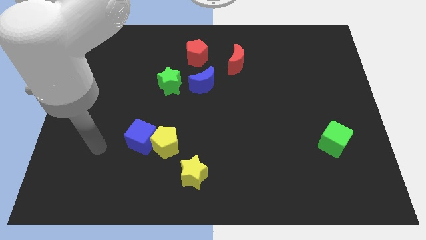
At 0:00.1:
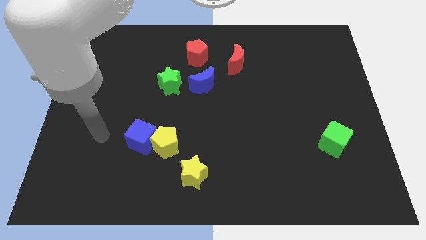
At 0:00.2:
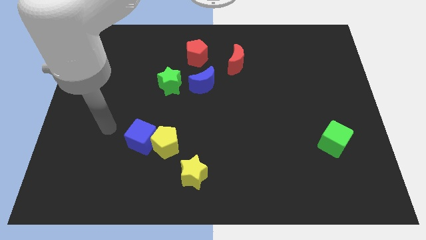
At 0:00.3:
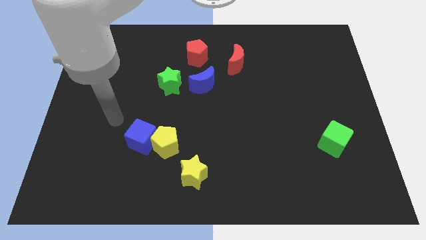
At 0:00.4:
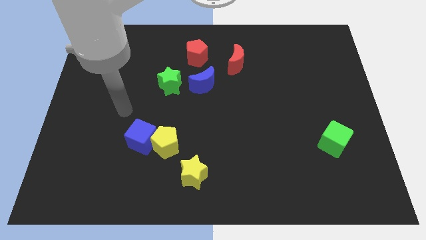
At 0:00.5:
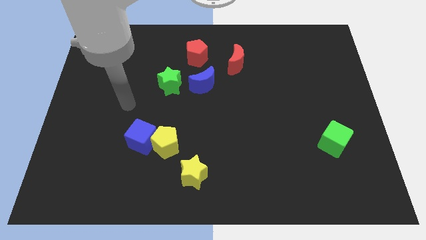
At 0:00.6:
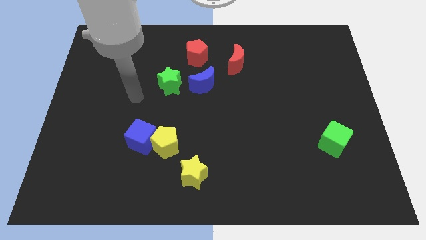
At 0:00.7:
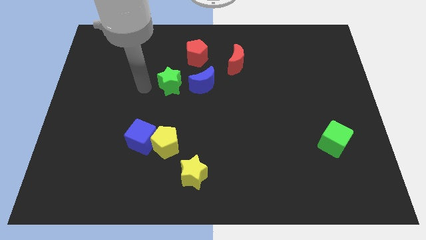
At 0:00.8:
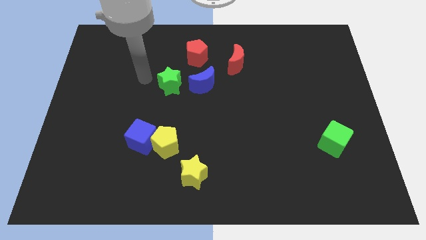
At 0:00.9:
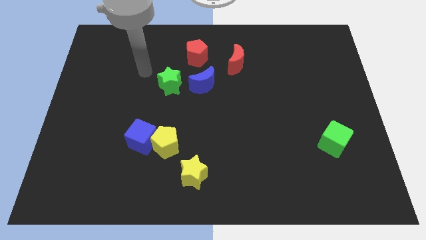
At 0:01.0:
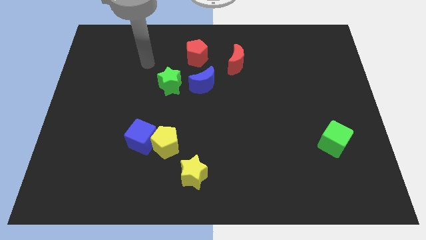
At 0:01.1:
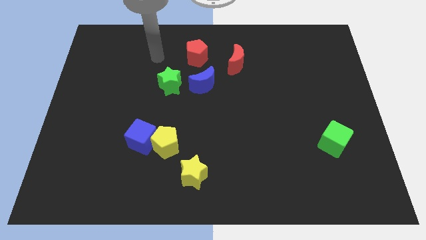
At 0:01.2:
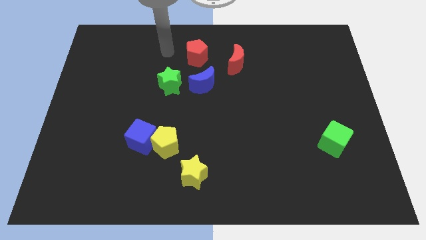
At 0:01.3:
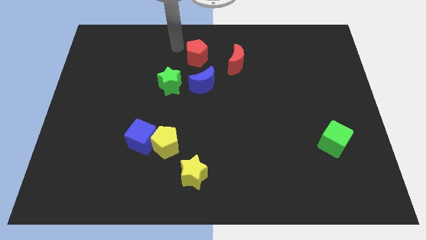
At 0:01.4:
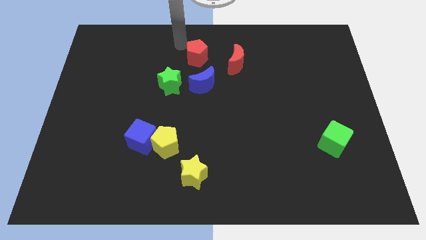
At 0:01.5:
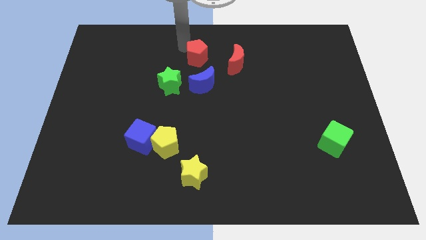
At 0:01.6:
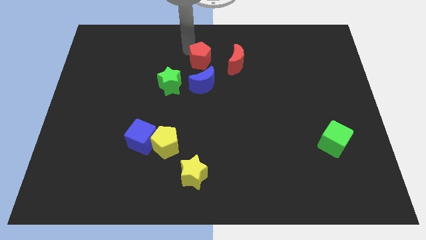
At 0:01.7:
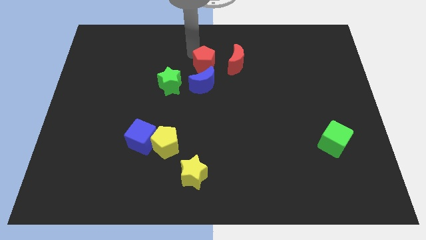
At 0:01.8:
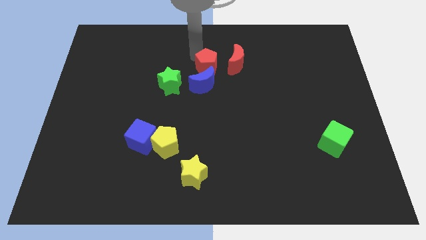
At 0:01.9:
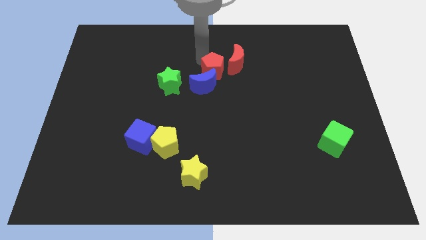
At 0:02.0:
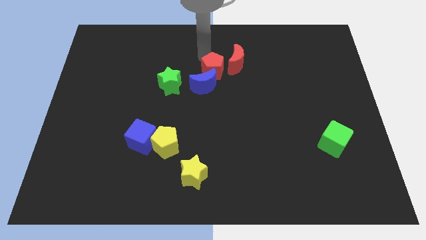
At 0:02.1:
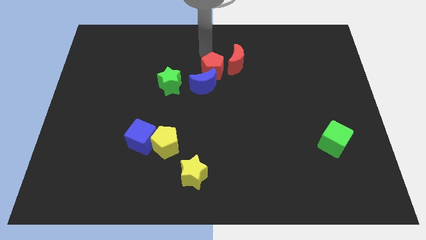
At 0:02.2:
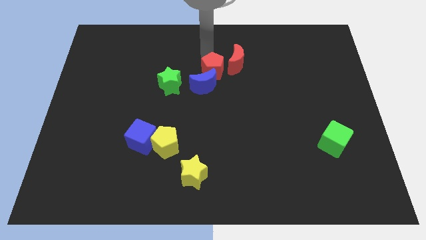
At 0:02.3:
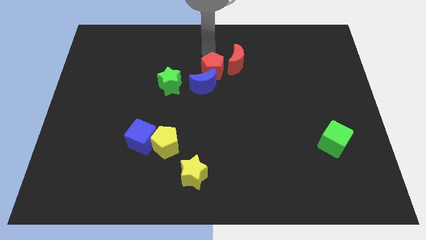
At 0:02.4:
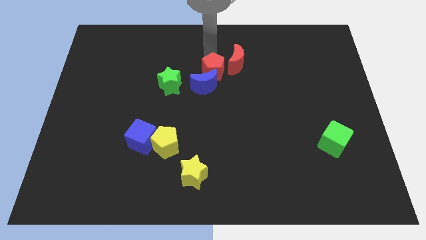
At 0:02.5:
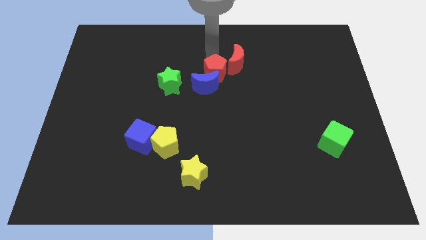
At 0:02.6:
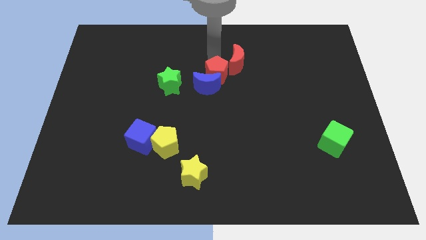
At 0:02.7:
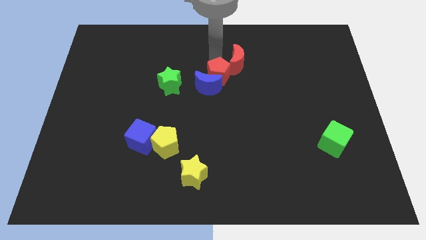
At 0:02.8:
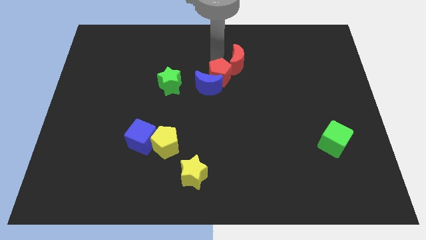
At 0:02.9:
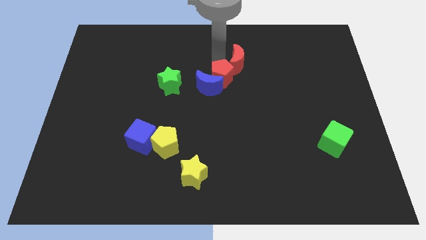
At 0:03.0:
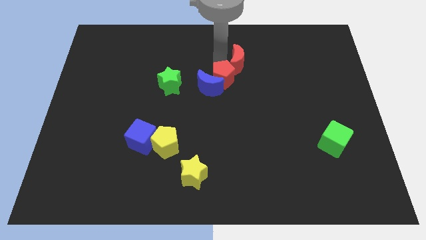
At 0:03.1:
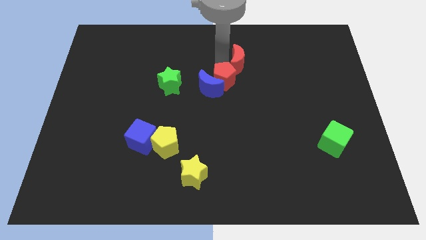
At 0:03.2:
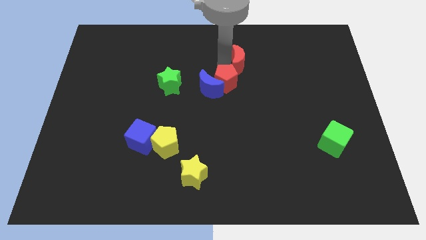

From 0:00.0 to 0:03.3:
move the red pentagon down a bit

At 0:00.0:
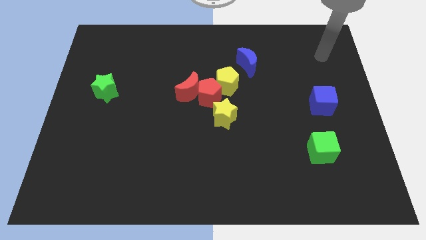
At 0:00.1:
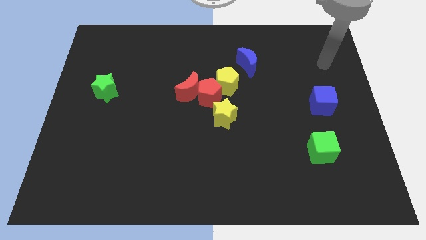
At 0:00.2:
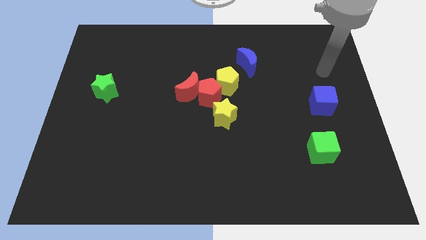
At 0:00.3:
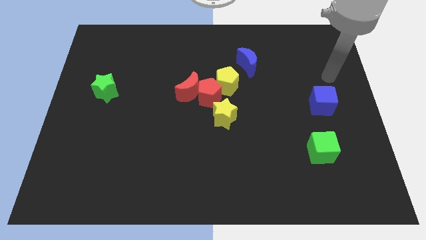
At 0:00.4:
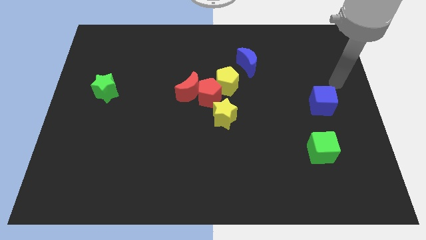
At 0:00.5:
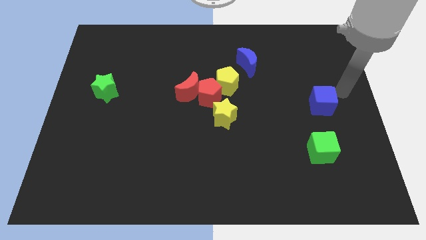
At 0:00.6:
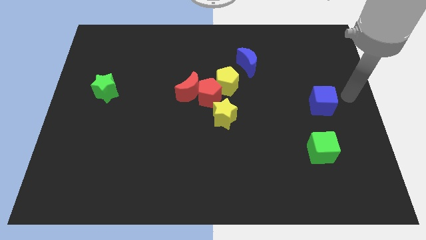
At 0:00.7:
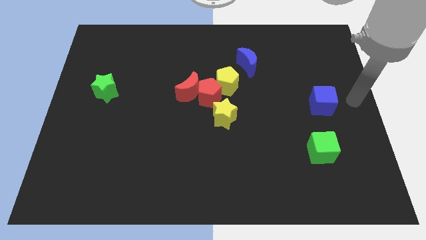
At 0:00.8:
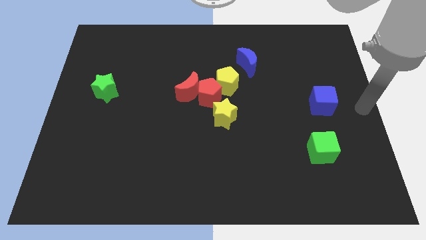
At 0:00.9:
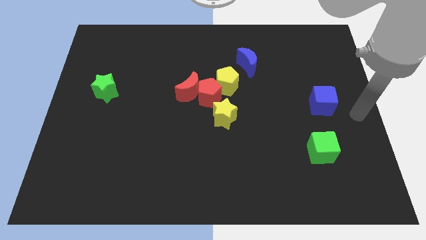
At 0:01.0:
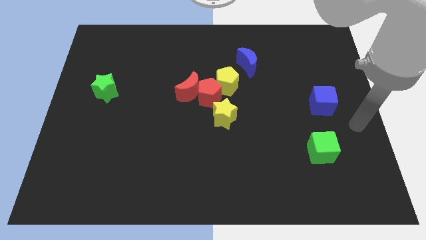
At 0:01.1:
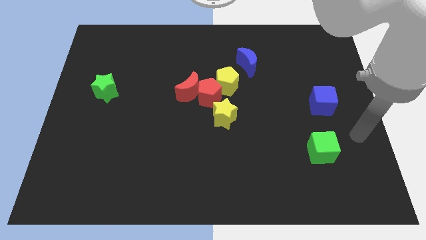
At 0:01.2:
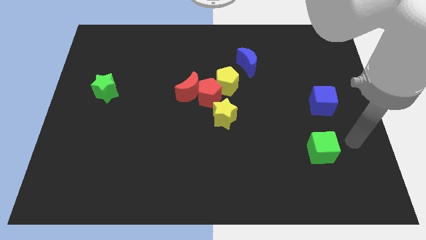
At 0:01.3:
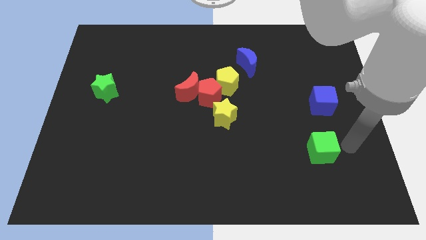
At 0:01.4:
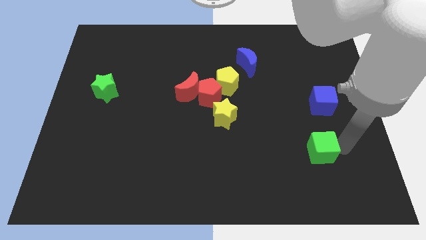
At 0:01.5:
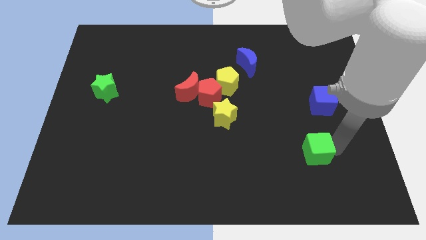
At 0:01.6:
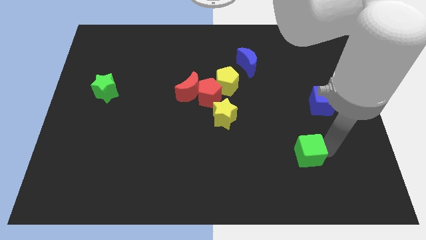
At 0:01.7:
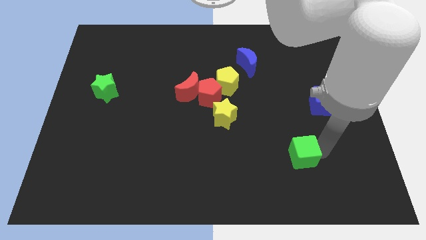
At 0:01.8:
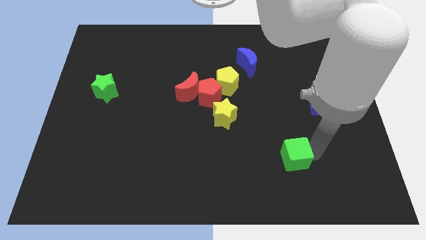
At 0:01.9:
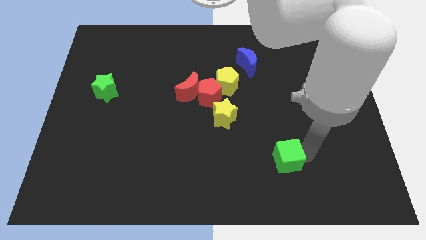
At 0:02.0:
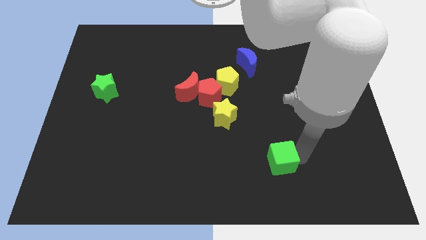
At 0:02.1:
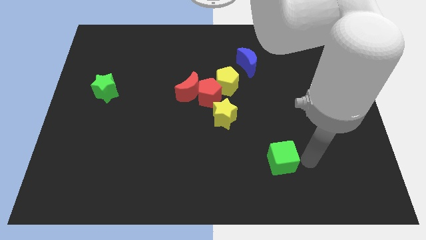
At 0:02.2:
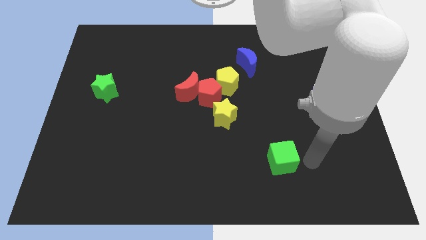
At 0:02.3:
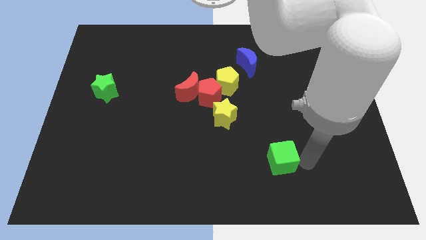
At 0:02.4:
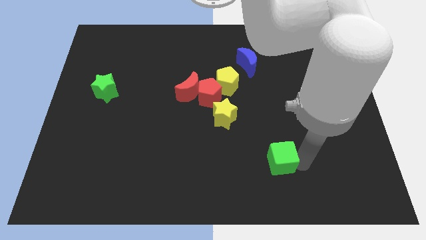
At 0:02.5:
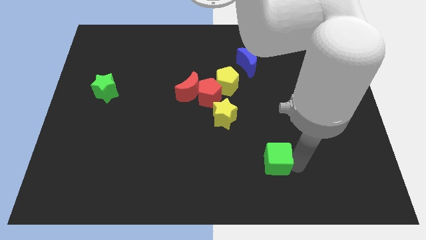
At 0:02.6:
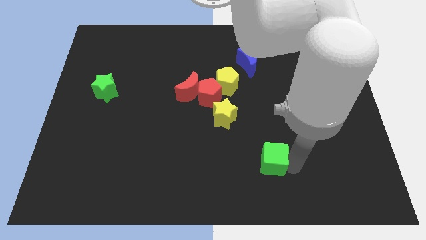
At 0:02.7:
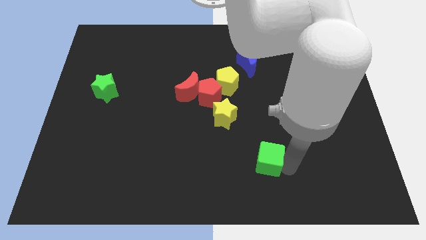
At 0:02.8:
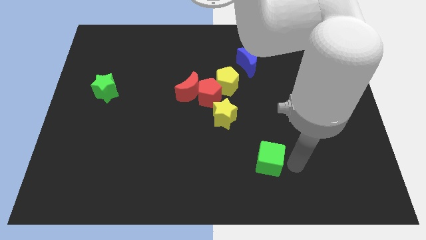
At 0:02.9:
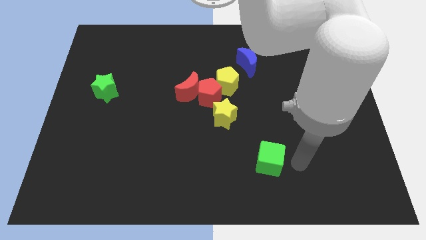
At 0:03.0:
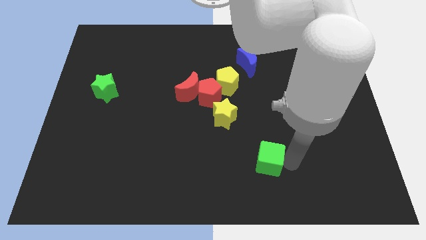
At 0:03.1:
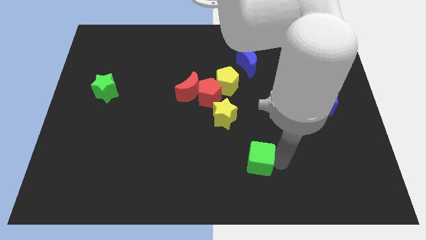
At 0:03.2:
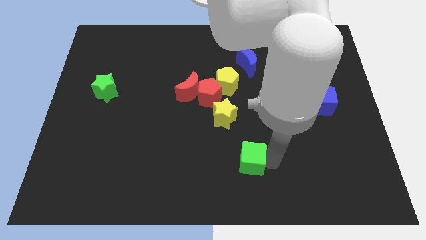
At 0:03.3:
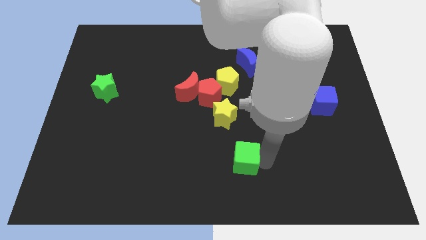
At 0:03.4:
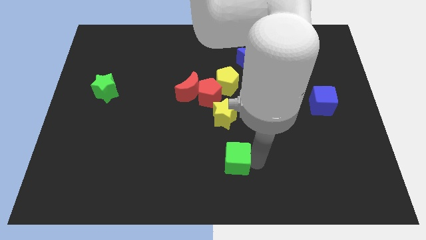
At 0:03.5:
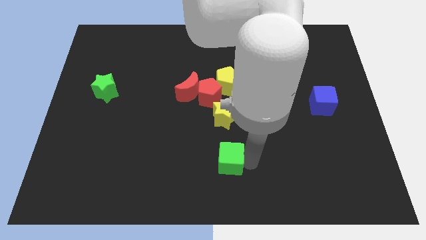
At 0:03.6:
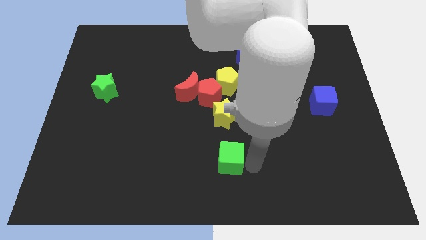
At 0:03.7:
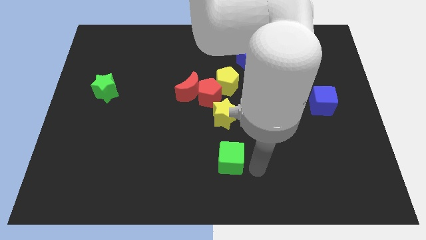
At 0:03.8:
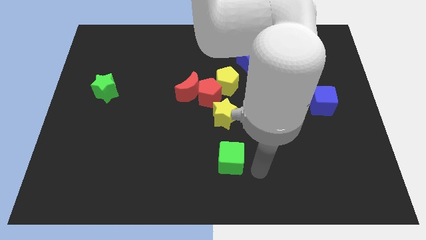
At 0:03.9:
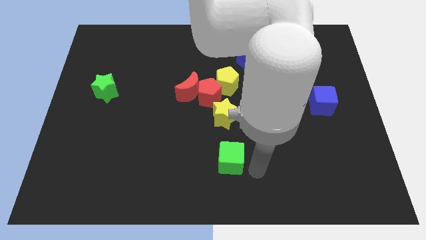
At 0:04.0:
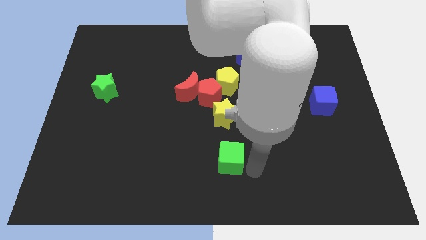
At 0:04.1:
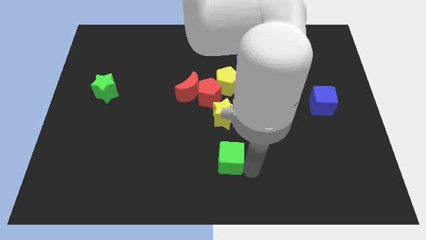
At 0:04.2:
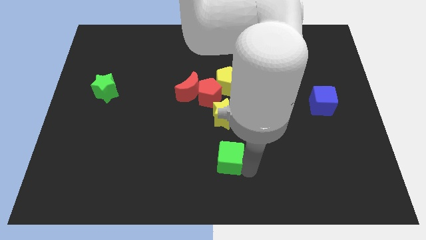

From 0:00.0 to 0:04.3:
slide the green cube to the left
